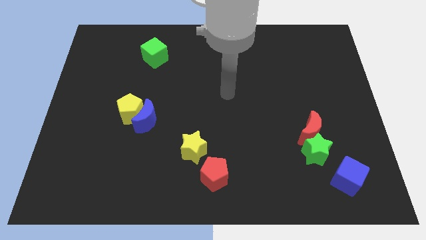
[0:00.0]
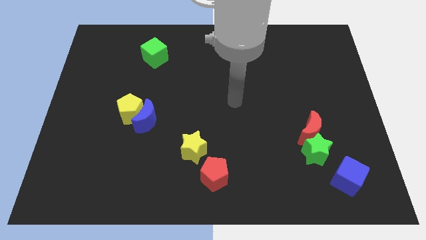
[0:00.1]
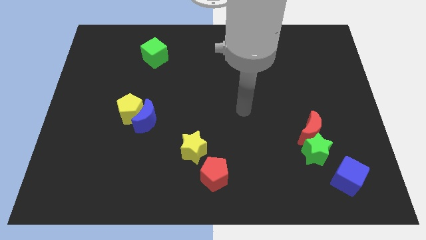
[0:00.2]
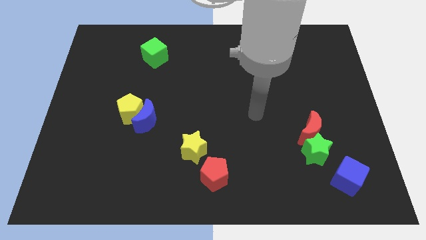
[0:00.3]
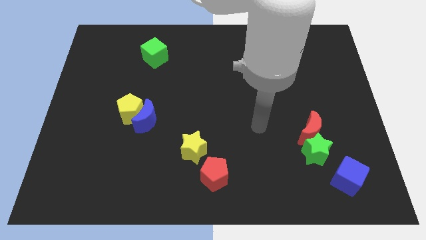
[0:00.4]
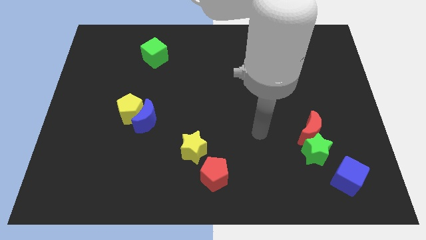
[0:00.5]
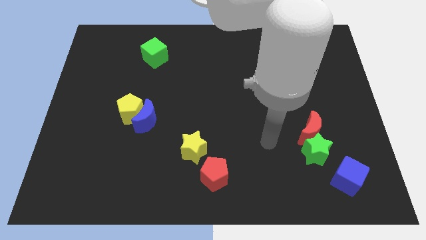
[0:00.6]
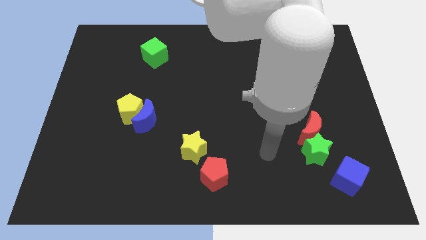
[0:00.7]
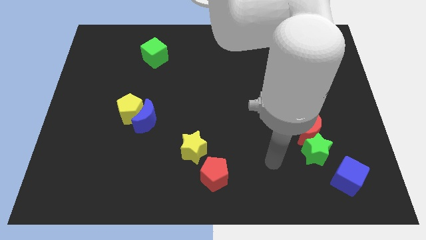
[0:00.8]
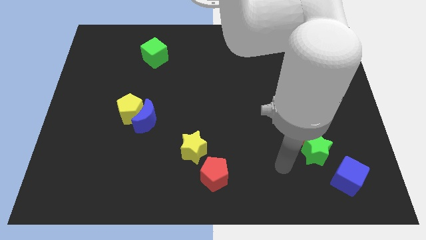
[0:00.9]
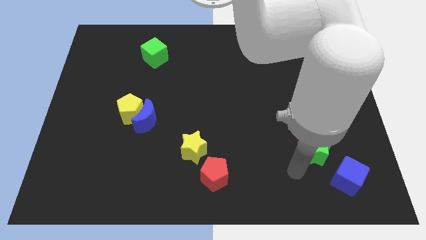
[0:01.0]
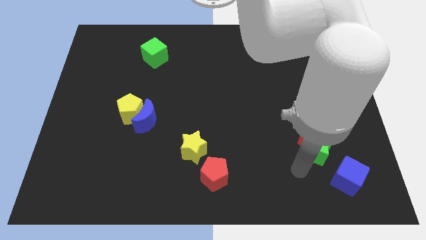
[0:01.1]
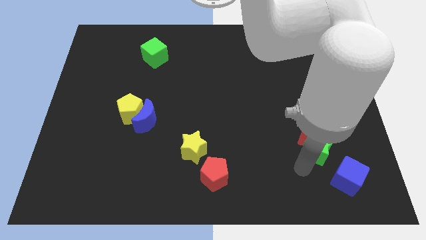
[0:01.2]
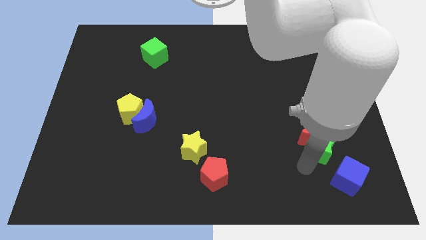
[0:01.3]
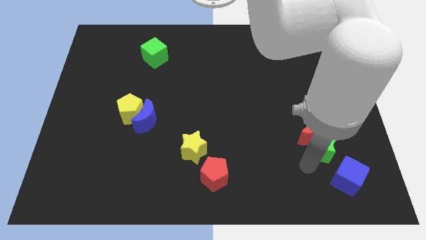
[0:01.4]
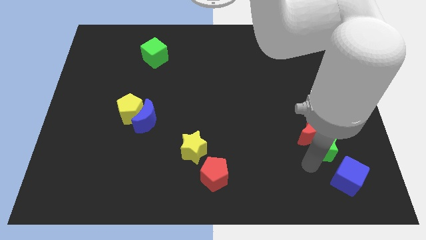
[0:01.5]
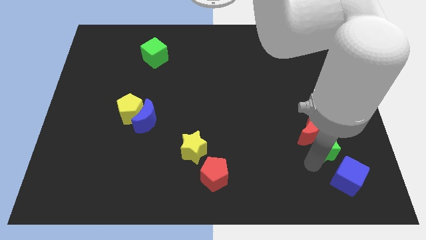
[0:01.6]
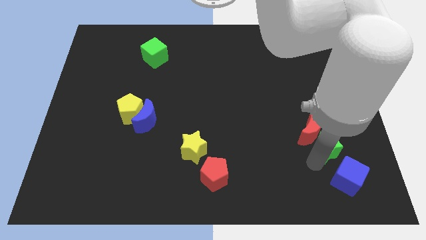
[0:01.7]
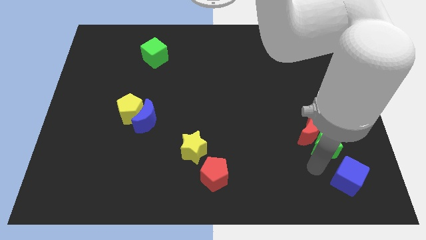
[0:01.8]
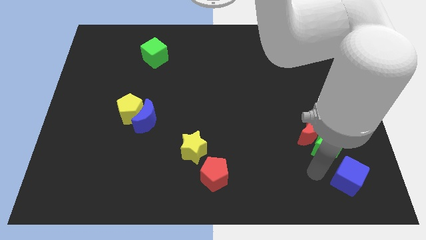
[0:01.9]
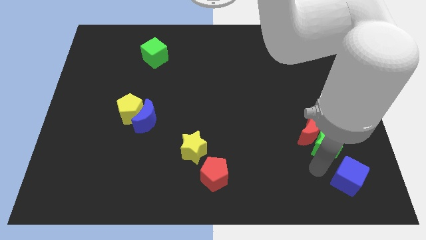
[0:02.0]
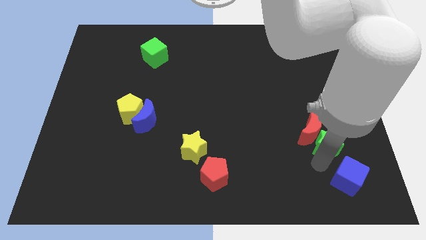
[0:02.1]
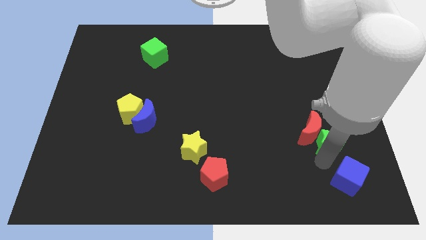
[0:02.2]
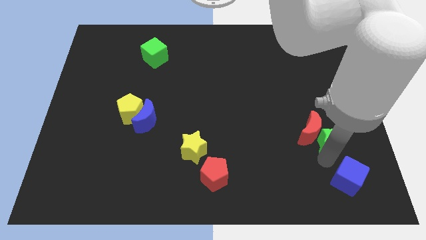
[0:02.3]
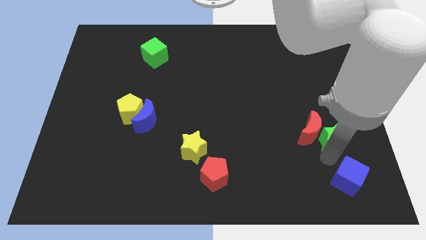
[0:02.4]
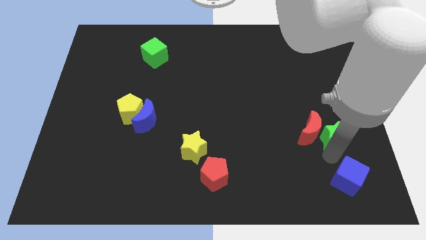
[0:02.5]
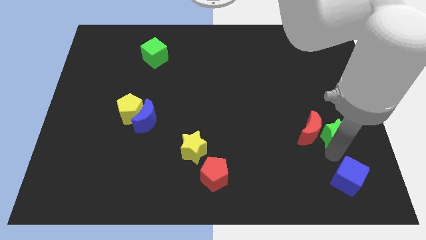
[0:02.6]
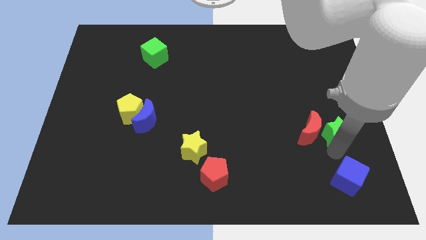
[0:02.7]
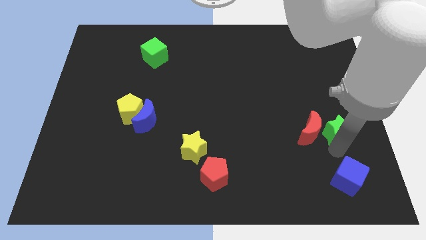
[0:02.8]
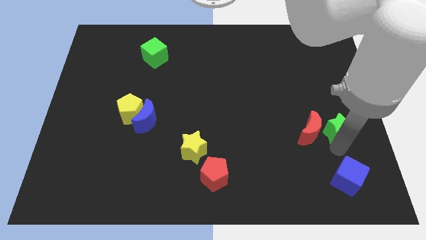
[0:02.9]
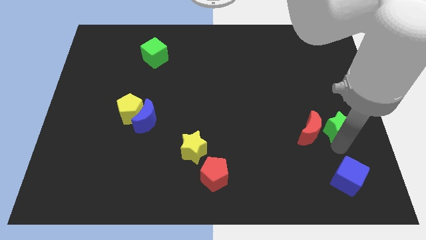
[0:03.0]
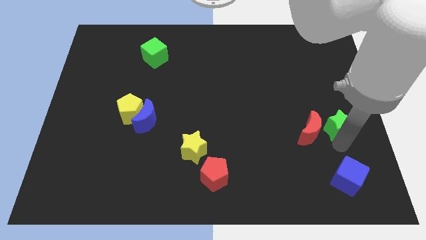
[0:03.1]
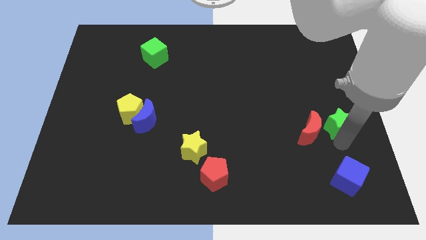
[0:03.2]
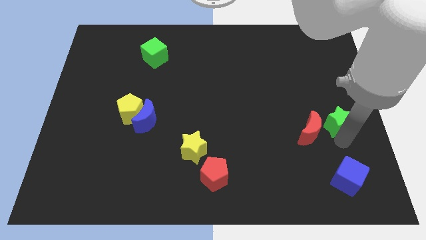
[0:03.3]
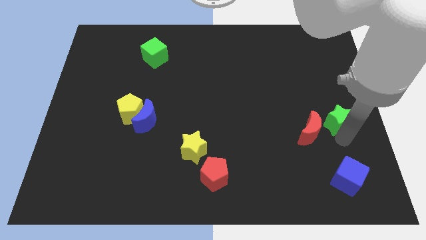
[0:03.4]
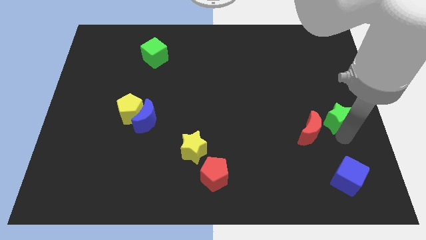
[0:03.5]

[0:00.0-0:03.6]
move the green star up a little bit

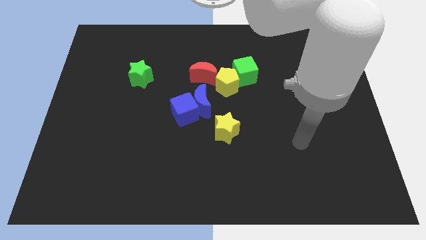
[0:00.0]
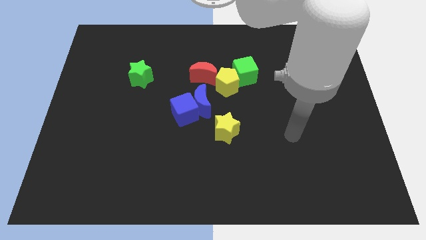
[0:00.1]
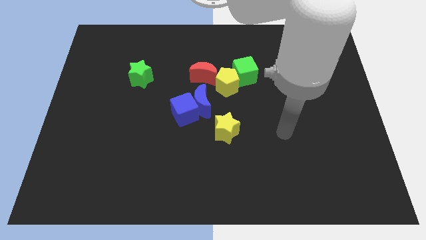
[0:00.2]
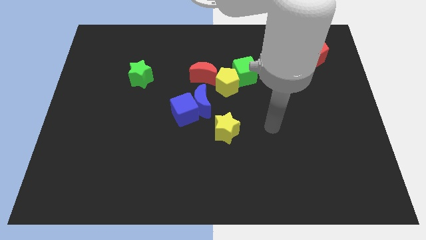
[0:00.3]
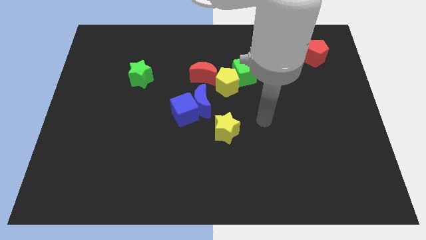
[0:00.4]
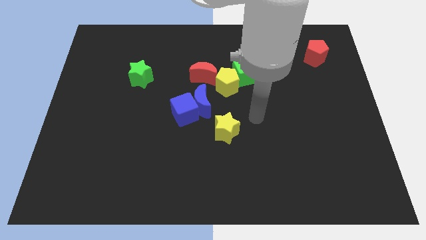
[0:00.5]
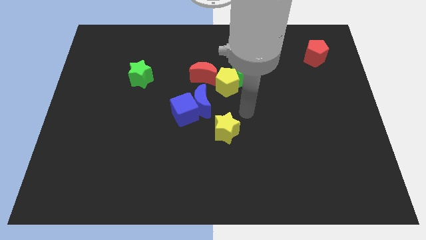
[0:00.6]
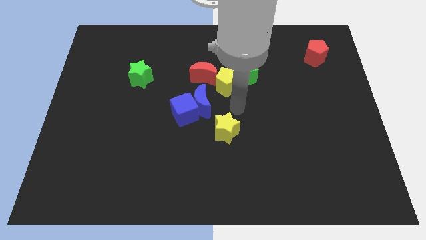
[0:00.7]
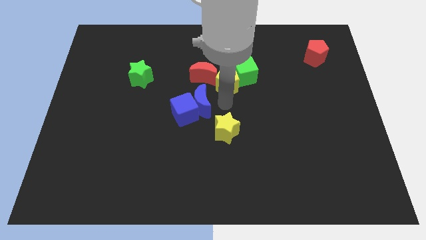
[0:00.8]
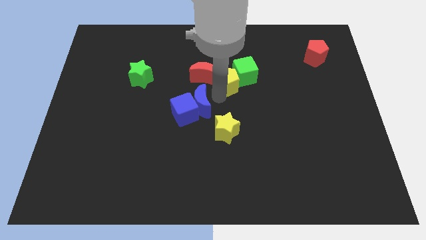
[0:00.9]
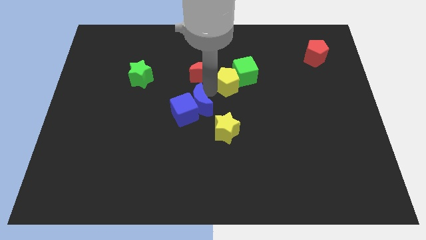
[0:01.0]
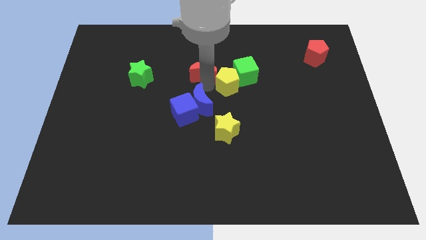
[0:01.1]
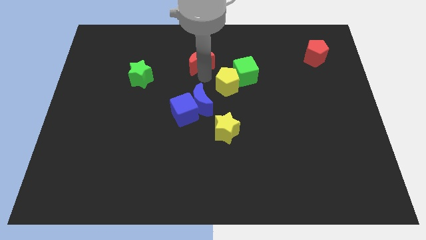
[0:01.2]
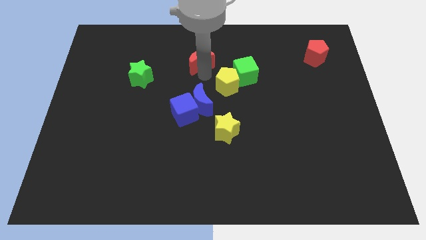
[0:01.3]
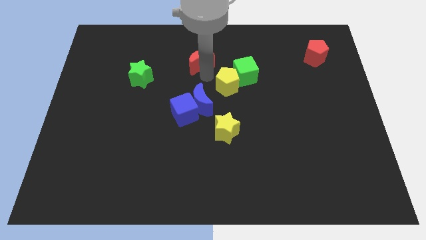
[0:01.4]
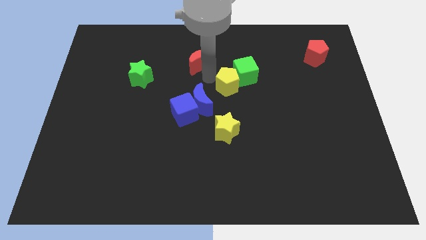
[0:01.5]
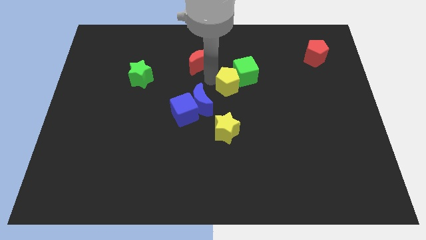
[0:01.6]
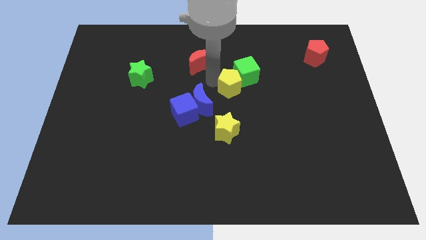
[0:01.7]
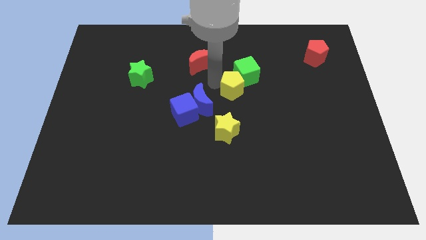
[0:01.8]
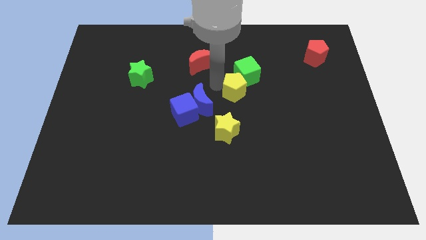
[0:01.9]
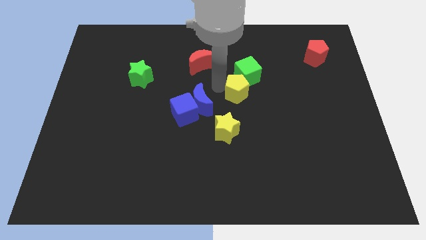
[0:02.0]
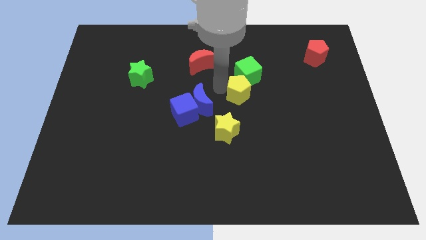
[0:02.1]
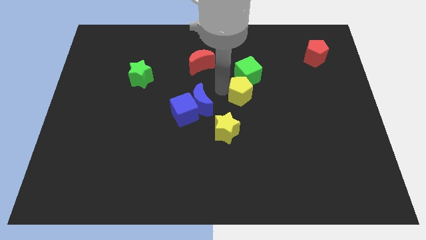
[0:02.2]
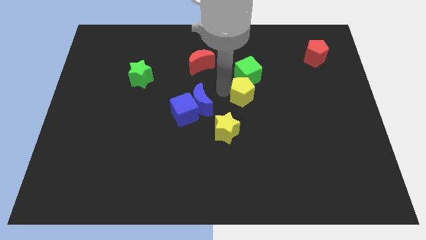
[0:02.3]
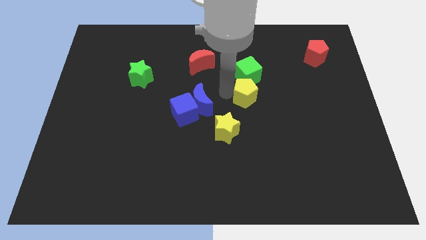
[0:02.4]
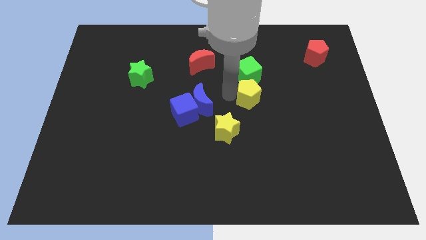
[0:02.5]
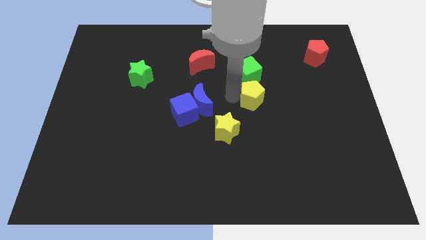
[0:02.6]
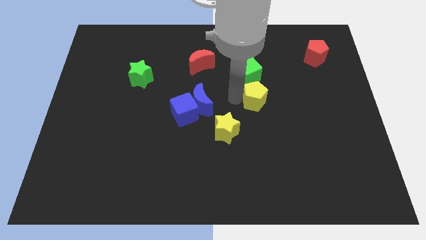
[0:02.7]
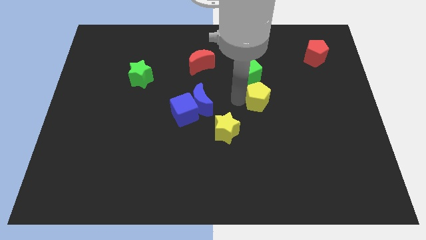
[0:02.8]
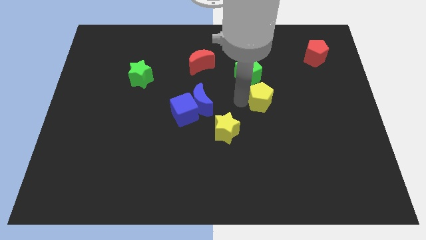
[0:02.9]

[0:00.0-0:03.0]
slightly move the yellow pentagon right

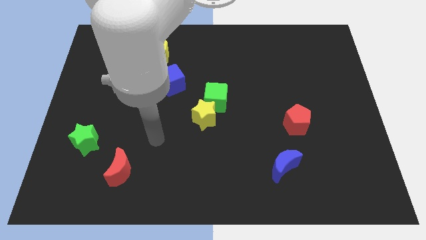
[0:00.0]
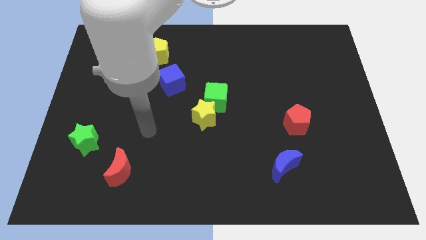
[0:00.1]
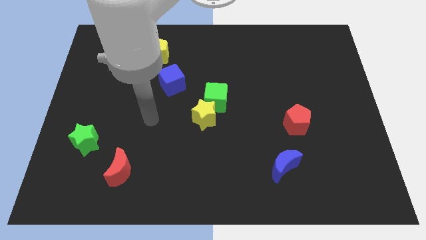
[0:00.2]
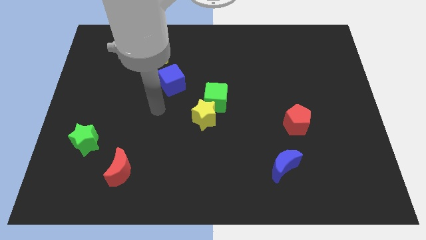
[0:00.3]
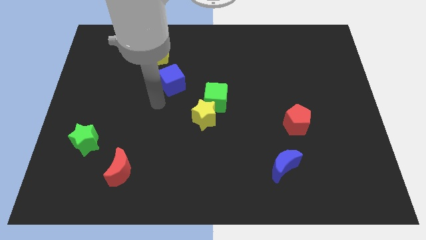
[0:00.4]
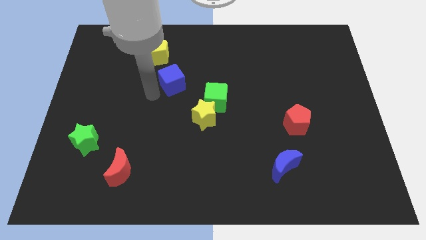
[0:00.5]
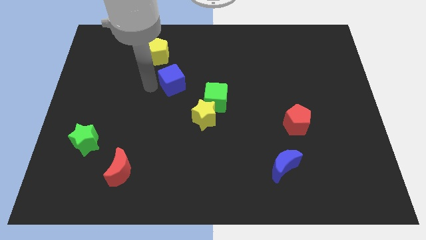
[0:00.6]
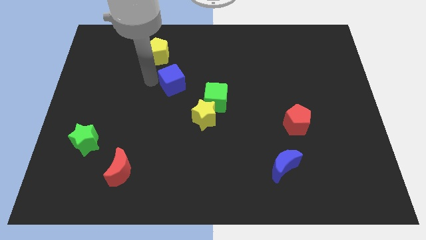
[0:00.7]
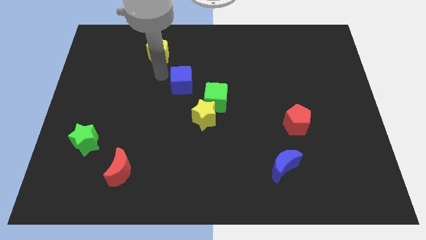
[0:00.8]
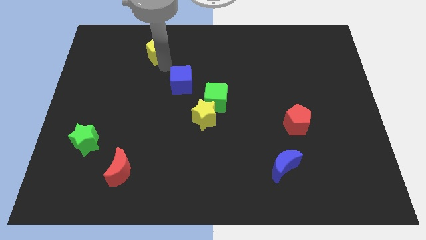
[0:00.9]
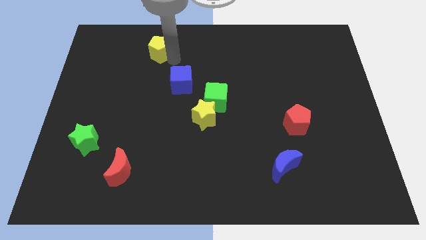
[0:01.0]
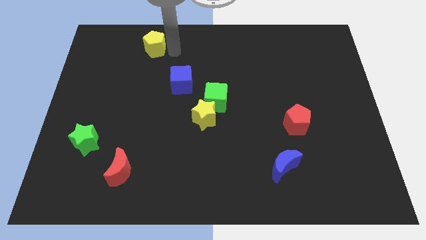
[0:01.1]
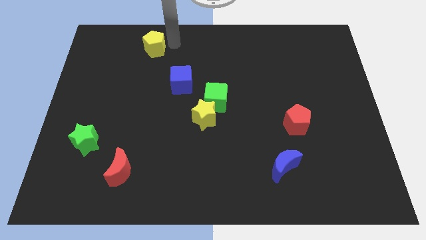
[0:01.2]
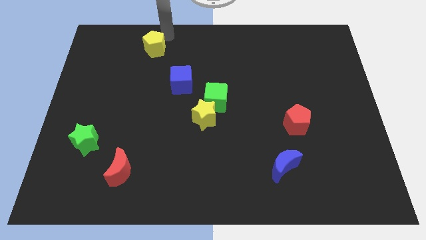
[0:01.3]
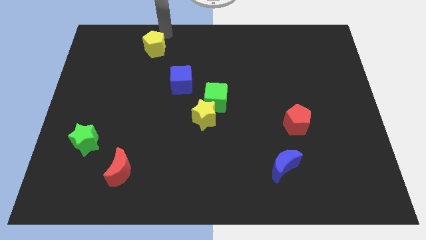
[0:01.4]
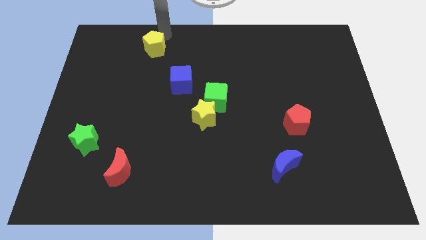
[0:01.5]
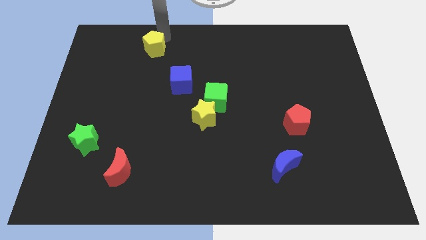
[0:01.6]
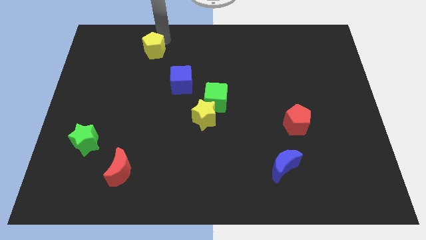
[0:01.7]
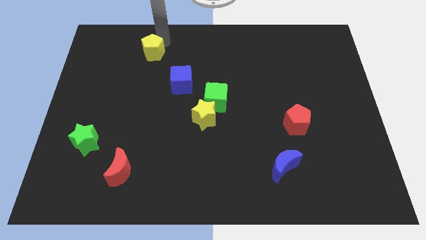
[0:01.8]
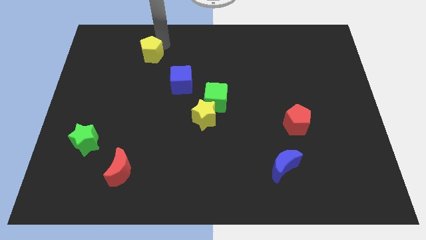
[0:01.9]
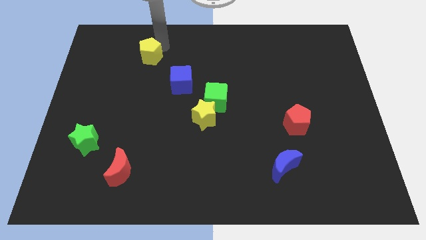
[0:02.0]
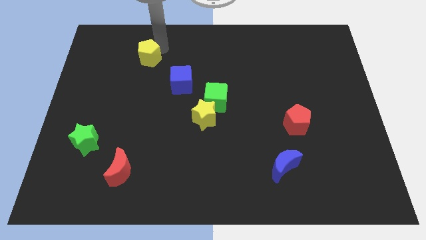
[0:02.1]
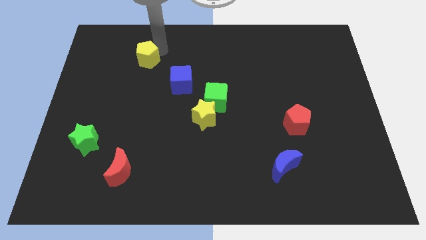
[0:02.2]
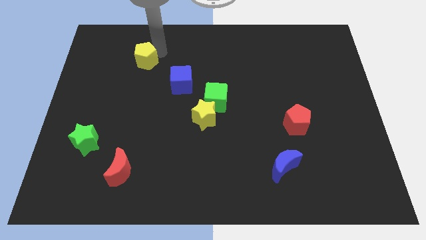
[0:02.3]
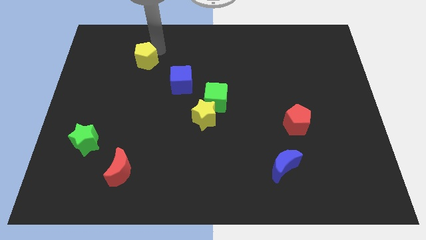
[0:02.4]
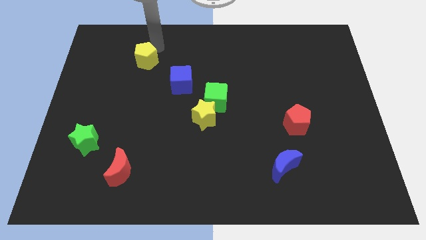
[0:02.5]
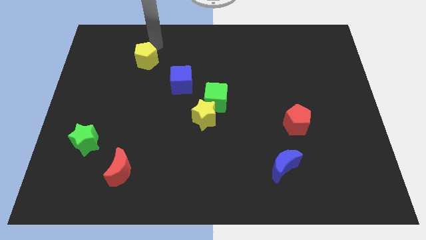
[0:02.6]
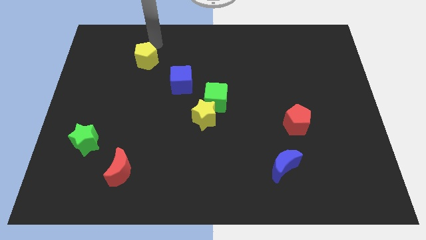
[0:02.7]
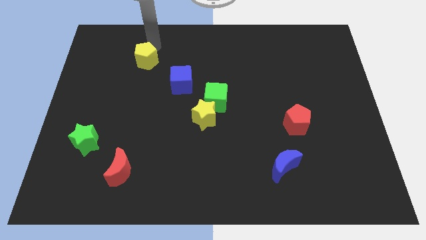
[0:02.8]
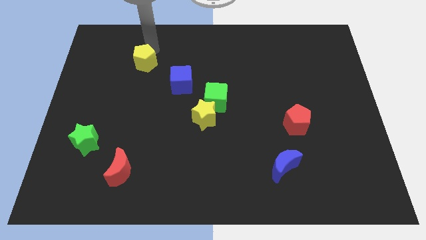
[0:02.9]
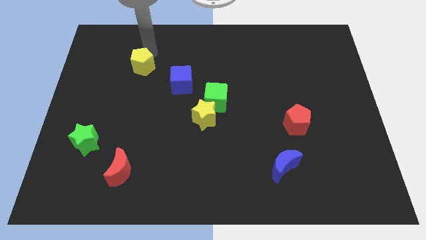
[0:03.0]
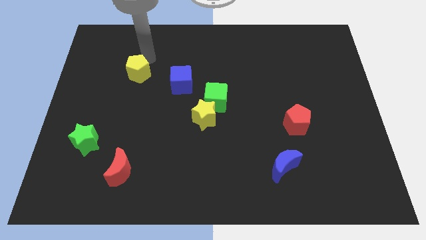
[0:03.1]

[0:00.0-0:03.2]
slightly push the yellow pentagon diagonally down and to the left
